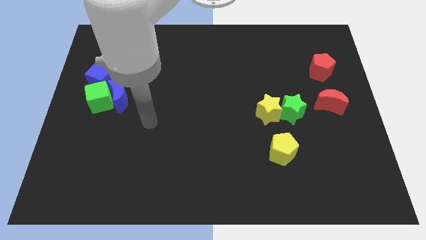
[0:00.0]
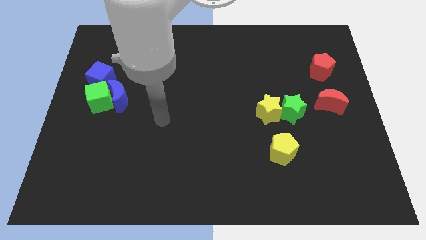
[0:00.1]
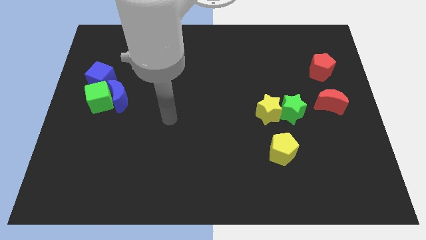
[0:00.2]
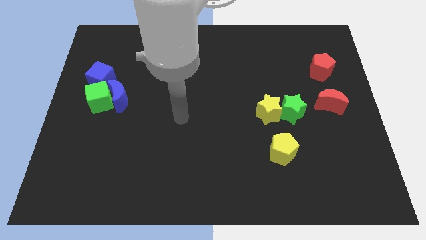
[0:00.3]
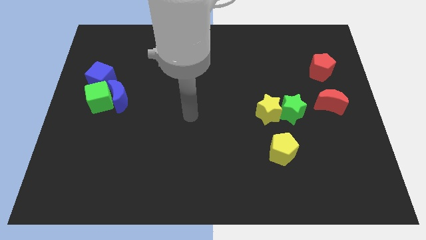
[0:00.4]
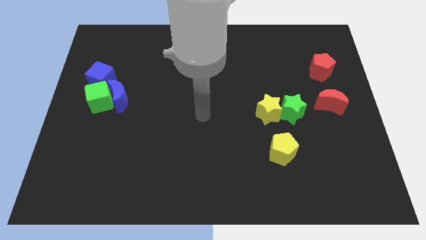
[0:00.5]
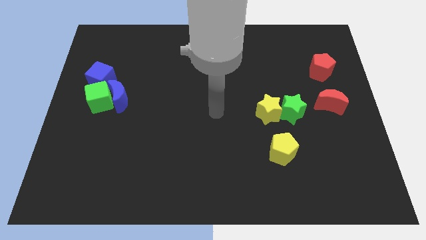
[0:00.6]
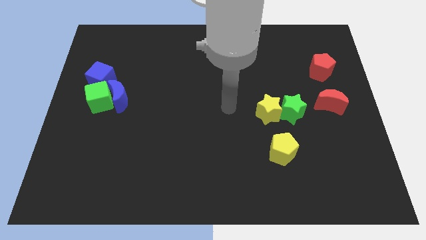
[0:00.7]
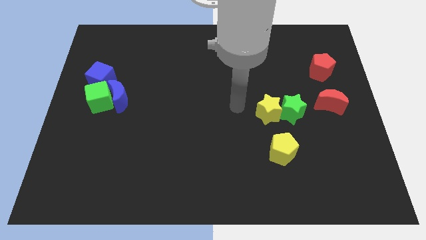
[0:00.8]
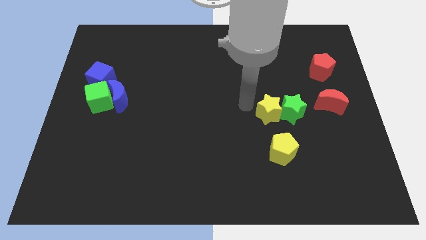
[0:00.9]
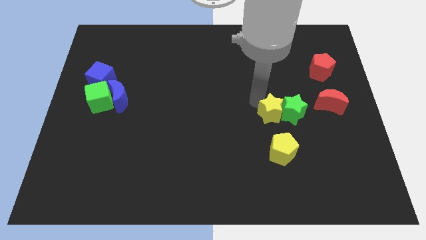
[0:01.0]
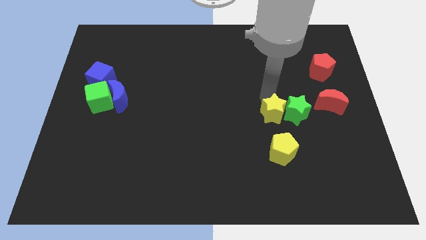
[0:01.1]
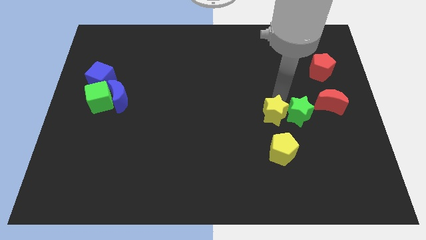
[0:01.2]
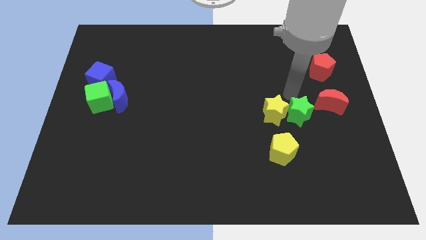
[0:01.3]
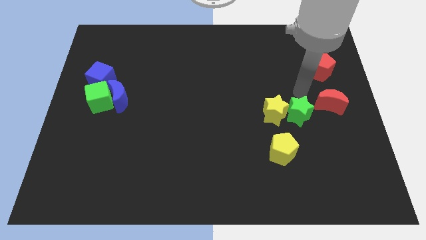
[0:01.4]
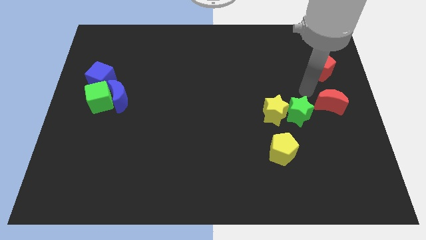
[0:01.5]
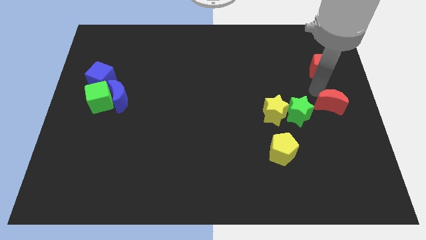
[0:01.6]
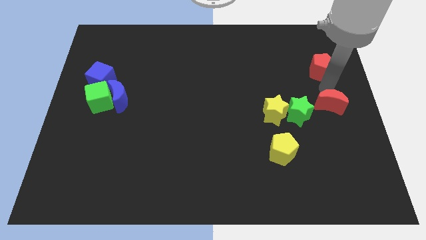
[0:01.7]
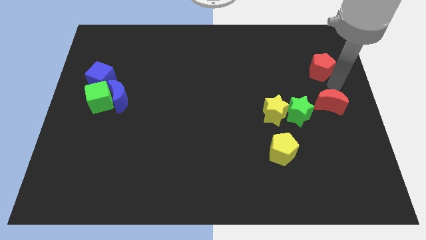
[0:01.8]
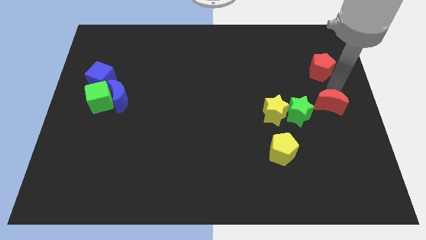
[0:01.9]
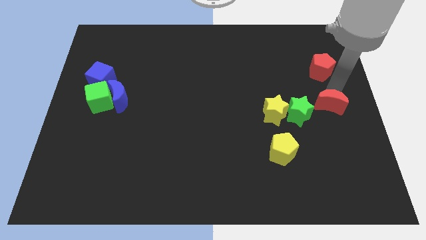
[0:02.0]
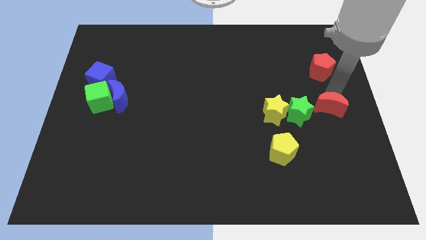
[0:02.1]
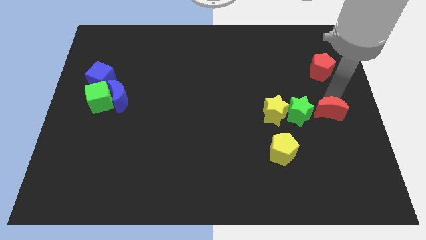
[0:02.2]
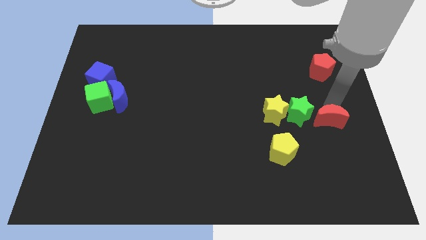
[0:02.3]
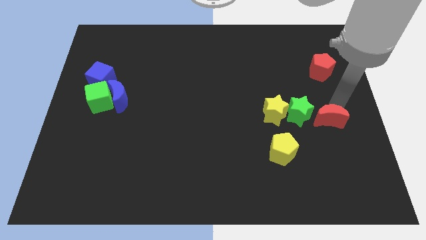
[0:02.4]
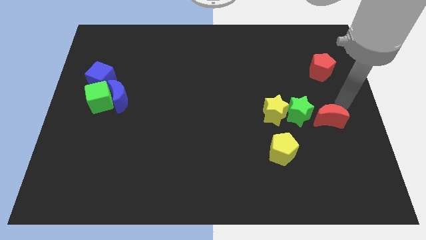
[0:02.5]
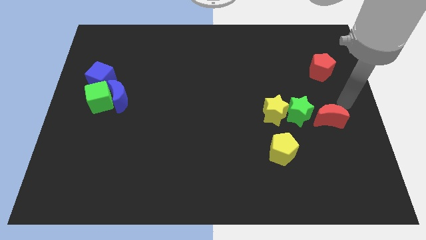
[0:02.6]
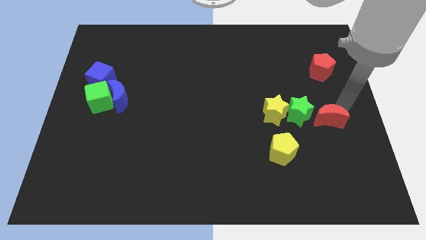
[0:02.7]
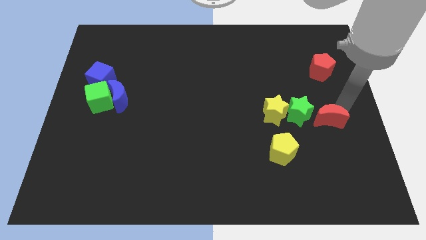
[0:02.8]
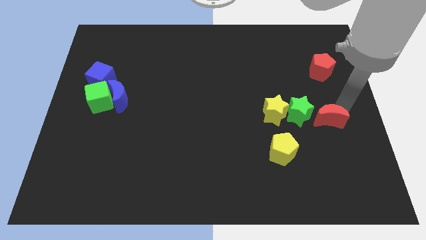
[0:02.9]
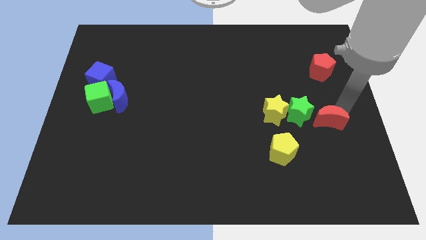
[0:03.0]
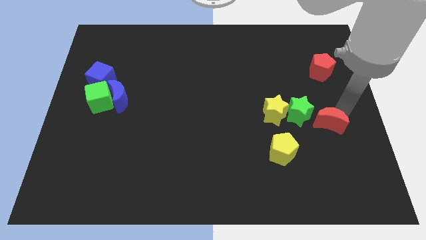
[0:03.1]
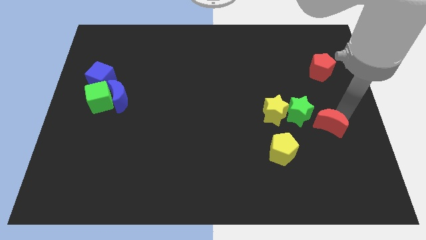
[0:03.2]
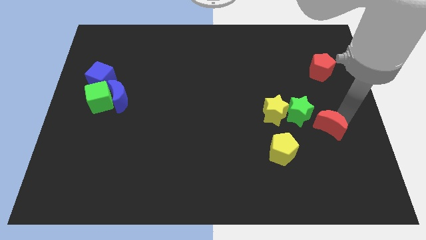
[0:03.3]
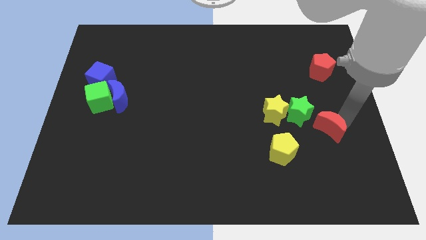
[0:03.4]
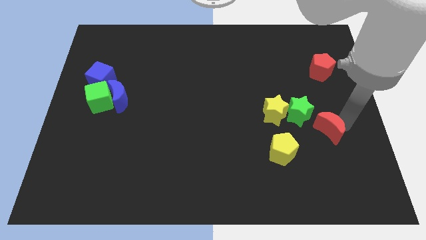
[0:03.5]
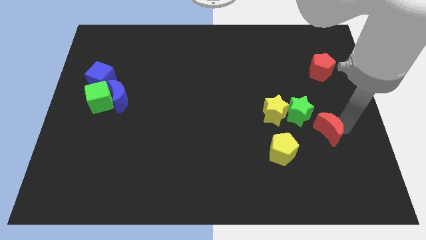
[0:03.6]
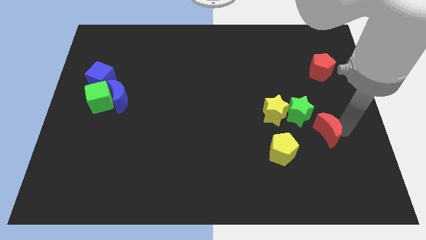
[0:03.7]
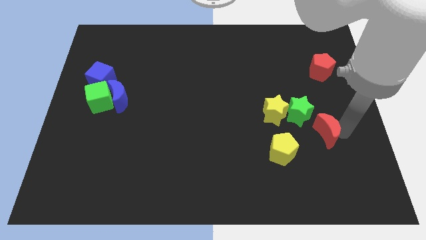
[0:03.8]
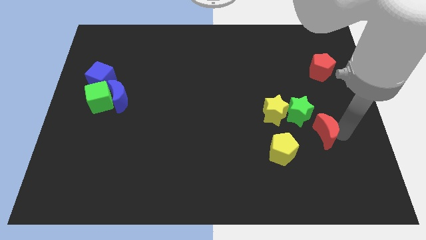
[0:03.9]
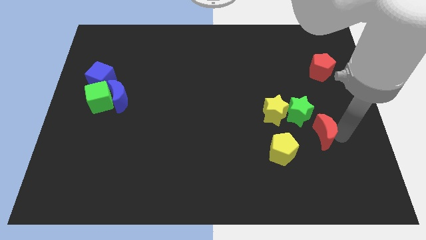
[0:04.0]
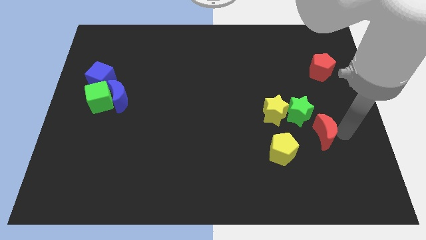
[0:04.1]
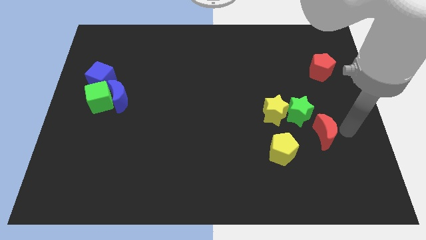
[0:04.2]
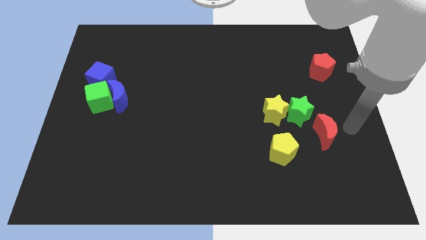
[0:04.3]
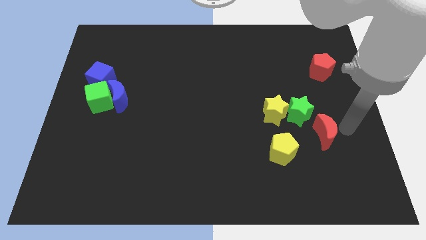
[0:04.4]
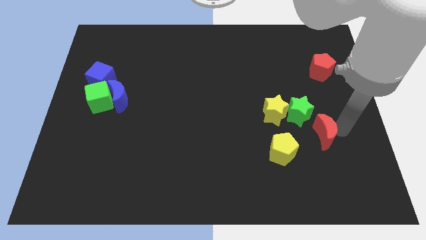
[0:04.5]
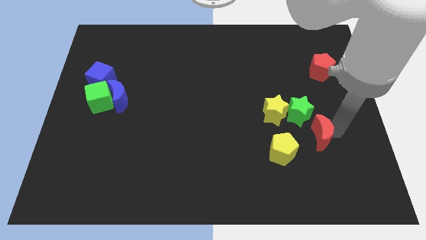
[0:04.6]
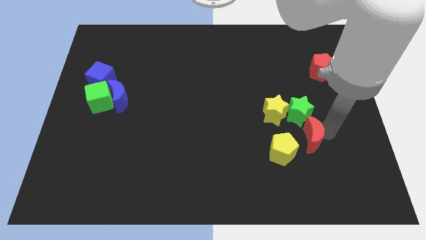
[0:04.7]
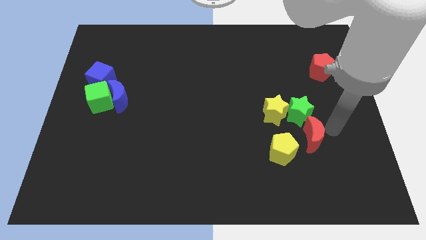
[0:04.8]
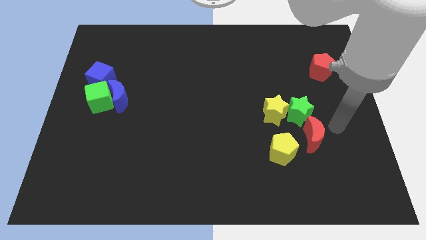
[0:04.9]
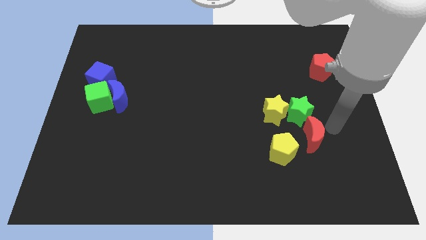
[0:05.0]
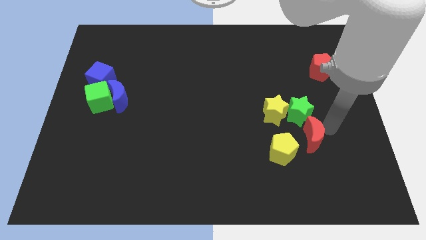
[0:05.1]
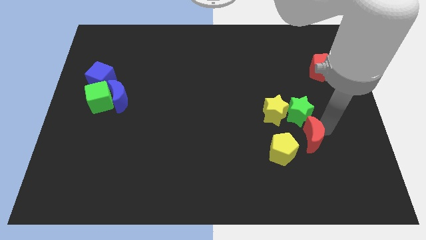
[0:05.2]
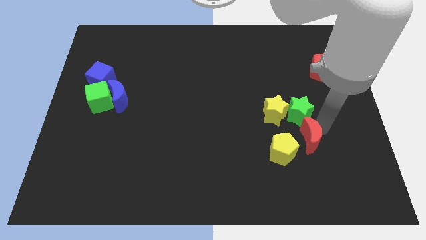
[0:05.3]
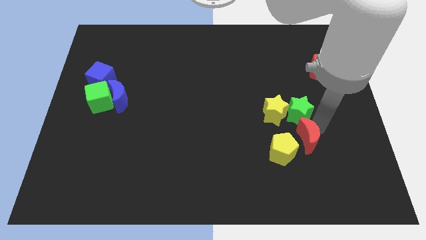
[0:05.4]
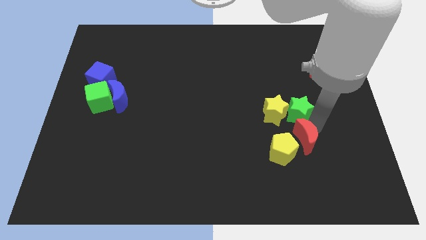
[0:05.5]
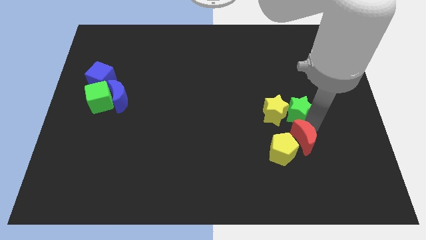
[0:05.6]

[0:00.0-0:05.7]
move the red moon towards the yellow pentagon

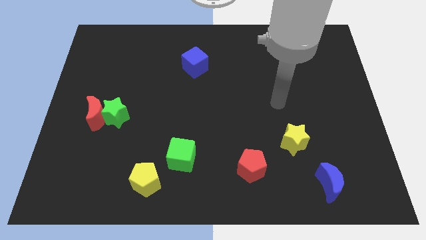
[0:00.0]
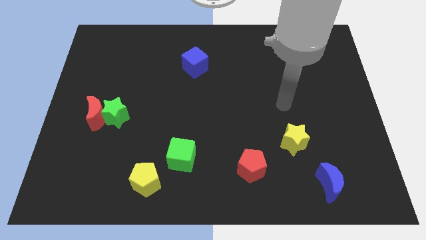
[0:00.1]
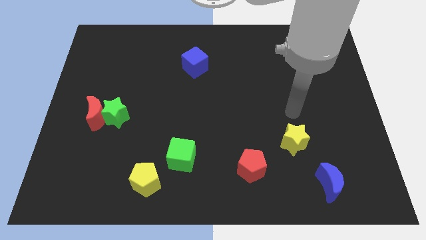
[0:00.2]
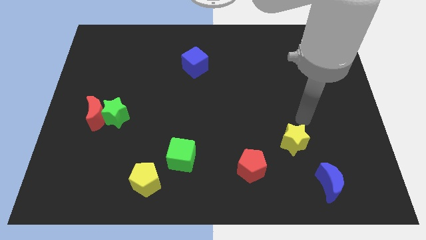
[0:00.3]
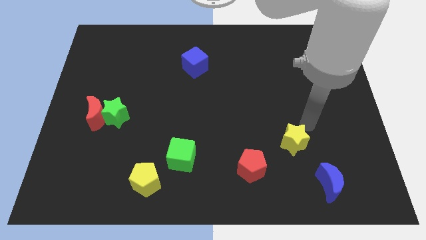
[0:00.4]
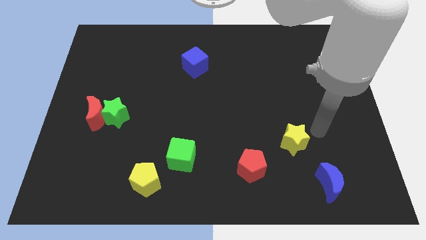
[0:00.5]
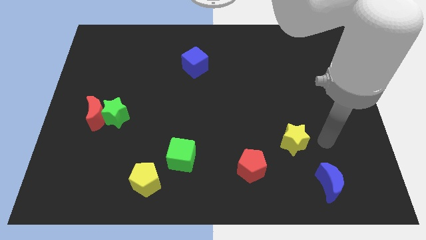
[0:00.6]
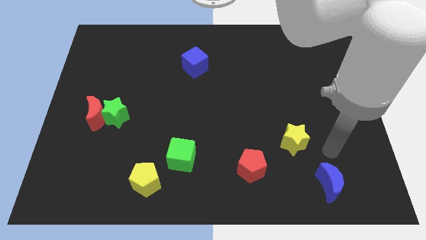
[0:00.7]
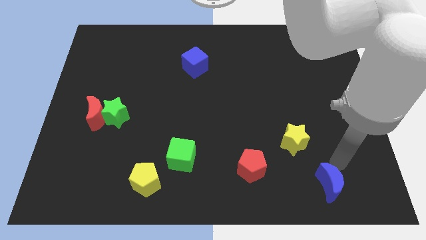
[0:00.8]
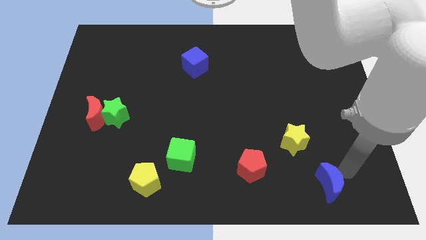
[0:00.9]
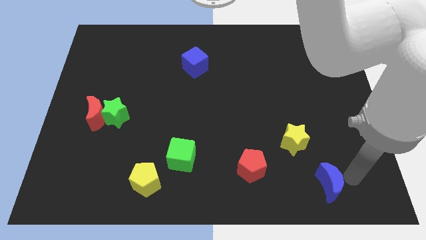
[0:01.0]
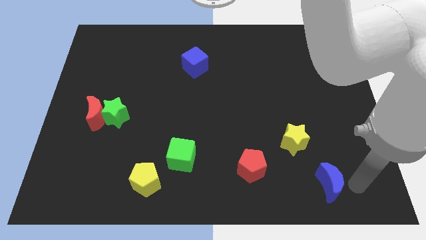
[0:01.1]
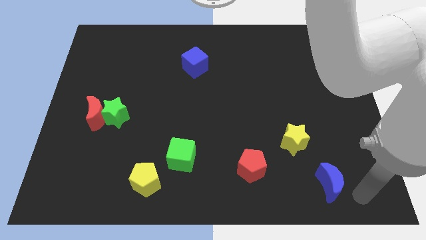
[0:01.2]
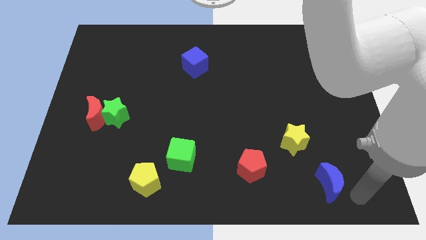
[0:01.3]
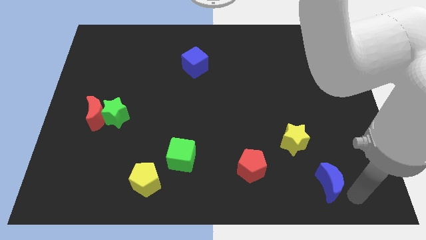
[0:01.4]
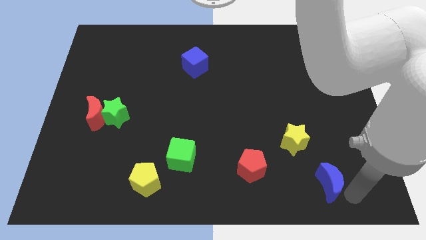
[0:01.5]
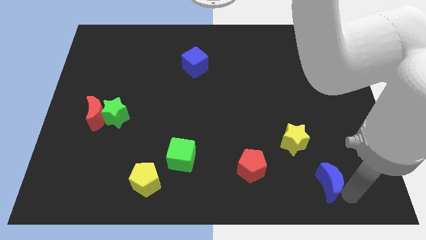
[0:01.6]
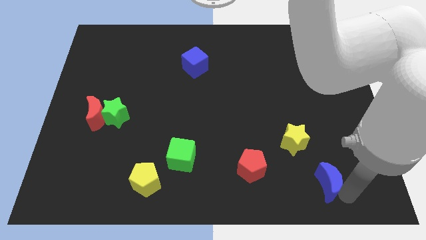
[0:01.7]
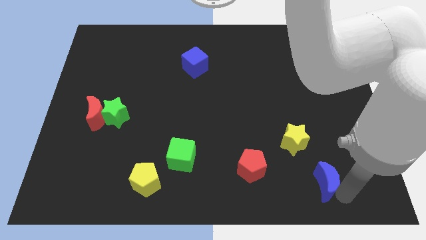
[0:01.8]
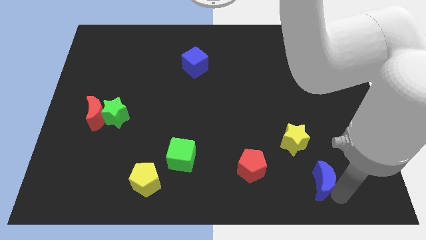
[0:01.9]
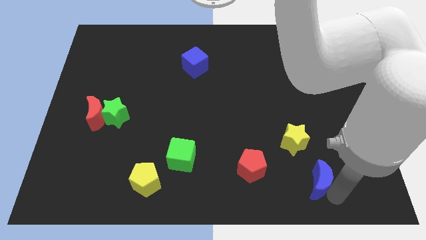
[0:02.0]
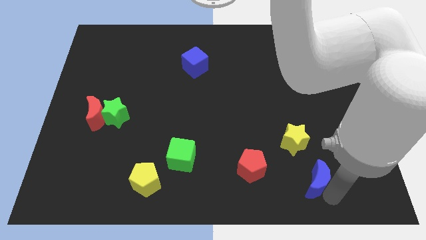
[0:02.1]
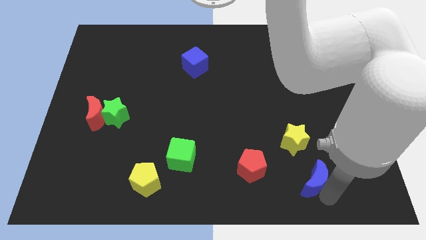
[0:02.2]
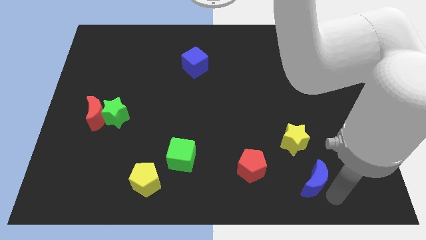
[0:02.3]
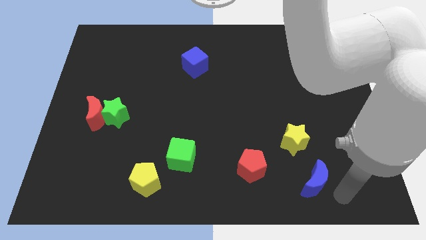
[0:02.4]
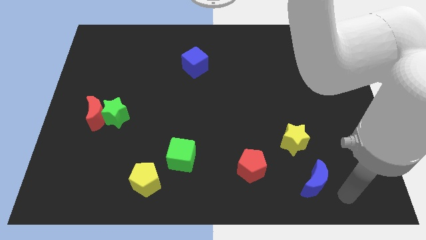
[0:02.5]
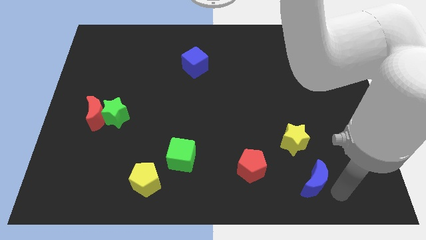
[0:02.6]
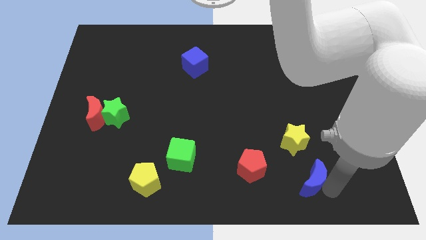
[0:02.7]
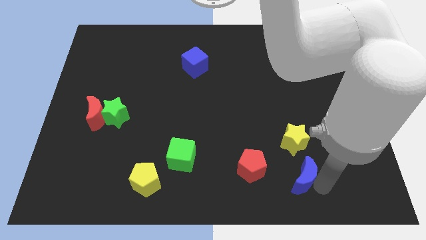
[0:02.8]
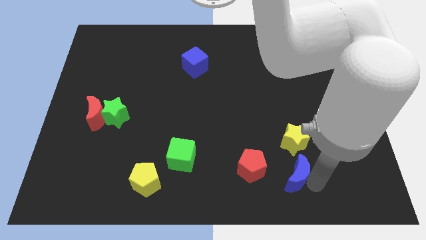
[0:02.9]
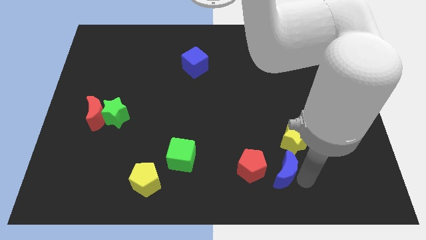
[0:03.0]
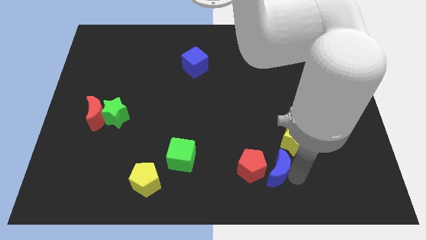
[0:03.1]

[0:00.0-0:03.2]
push the blue moon towards the red pentagon
